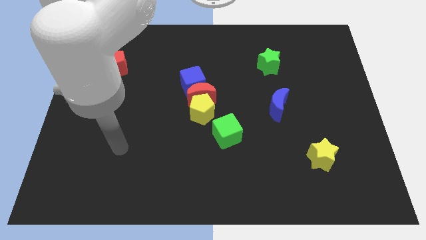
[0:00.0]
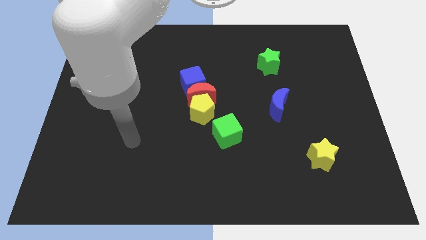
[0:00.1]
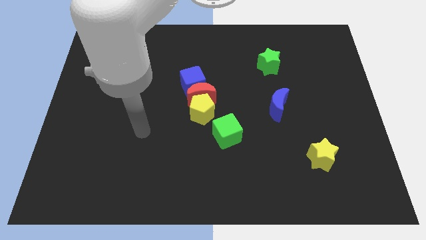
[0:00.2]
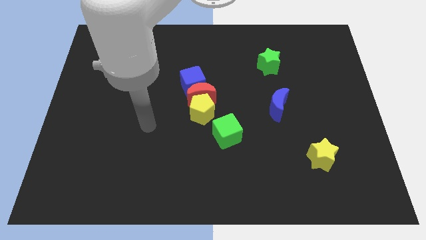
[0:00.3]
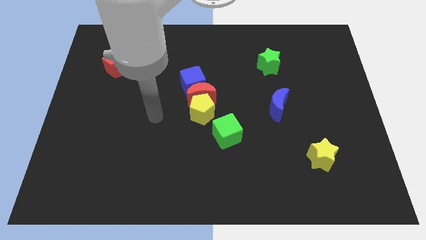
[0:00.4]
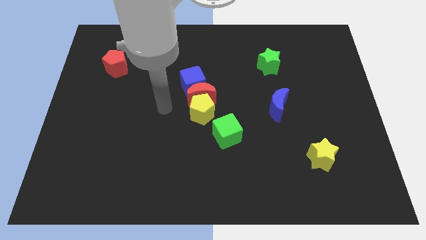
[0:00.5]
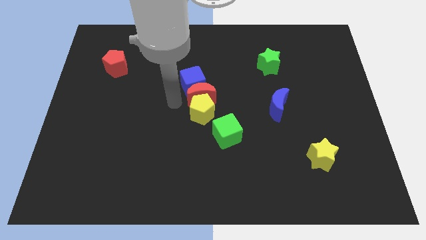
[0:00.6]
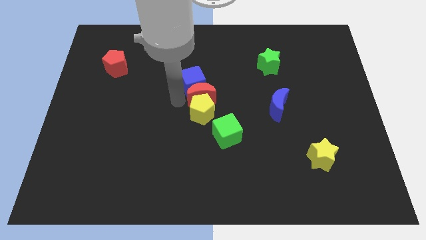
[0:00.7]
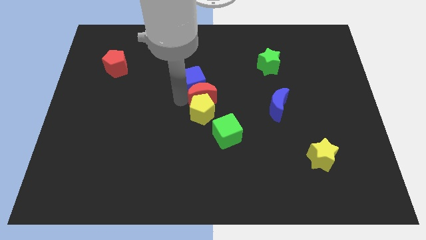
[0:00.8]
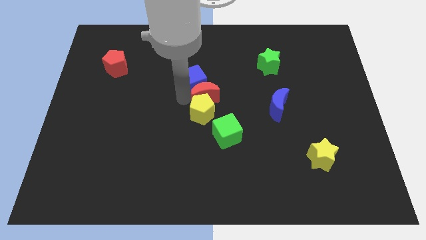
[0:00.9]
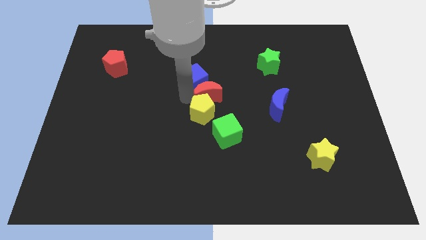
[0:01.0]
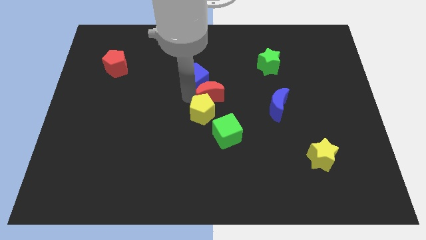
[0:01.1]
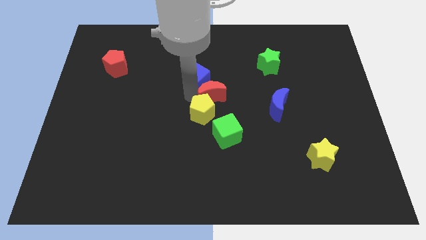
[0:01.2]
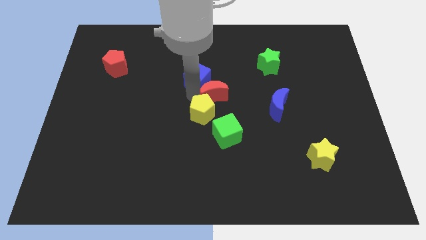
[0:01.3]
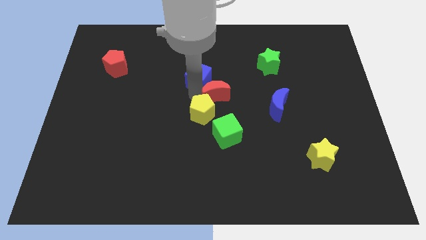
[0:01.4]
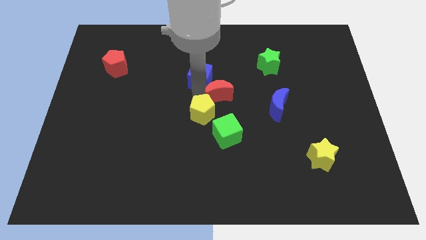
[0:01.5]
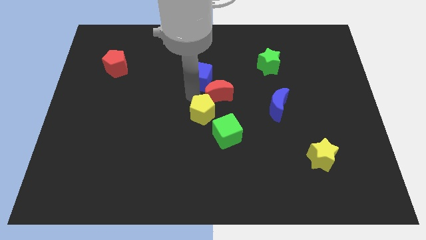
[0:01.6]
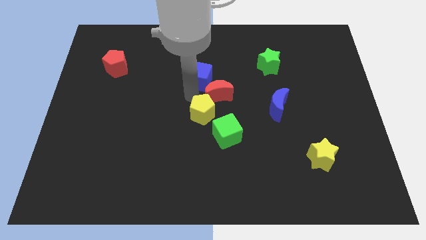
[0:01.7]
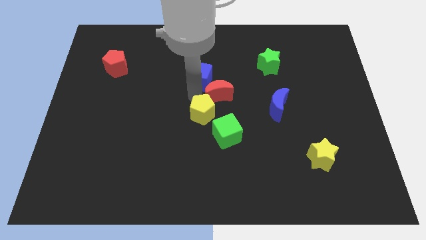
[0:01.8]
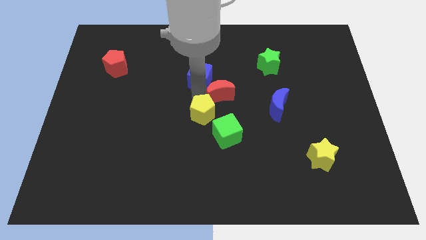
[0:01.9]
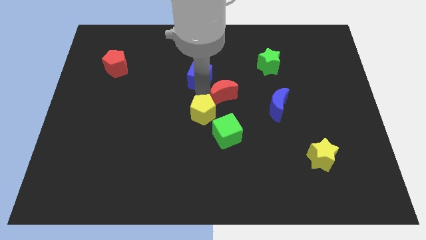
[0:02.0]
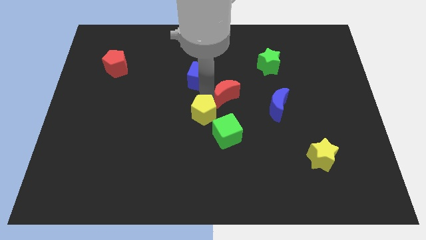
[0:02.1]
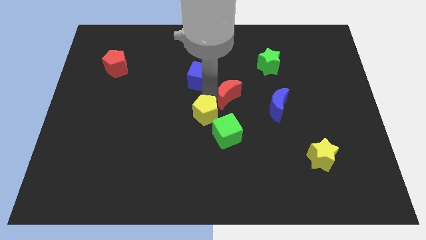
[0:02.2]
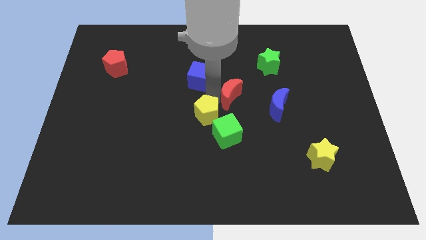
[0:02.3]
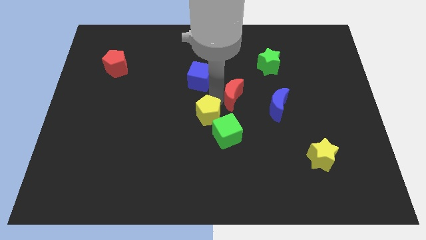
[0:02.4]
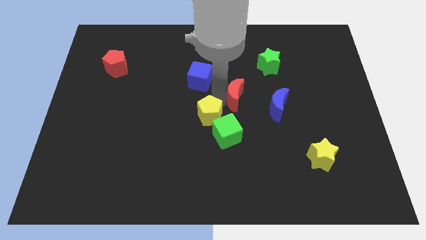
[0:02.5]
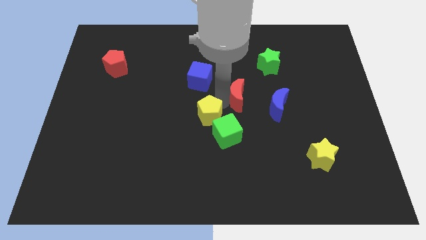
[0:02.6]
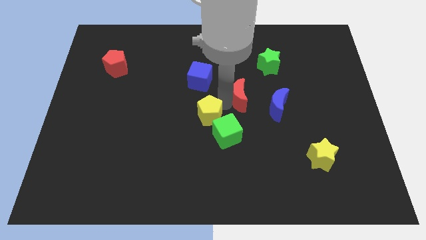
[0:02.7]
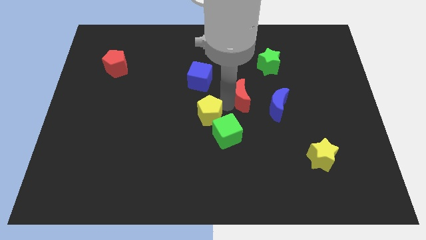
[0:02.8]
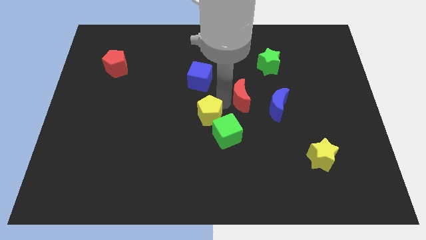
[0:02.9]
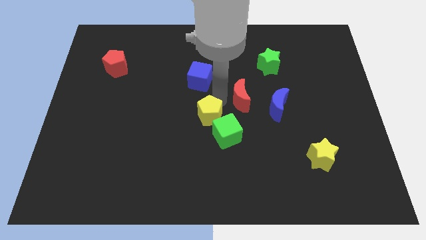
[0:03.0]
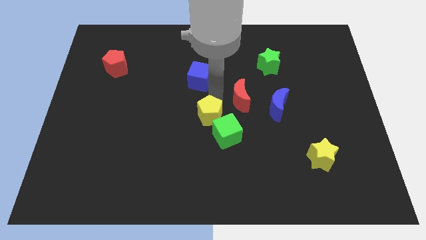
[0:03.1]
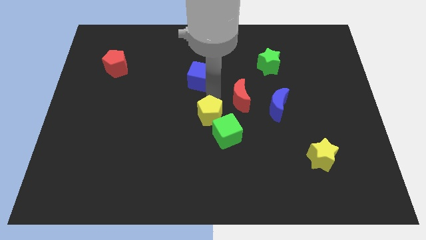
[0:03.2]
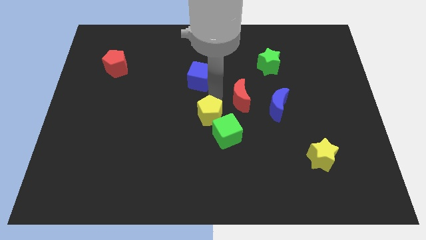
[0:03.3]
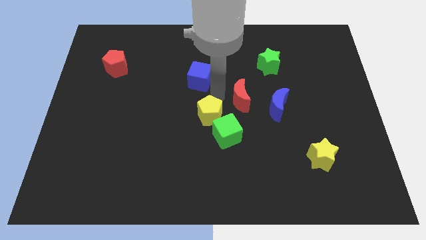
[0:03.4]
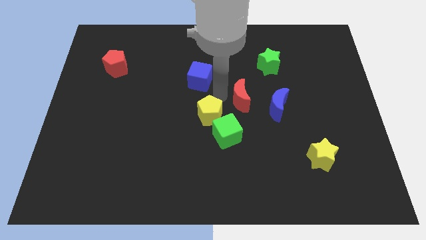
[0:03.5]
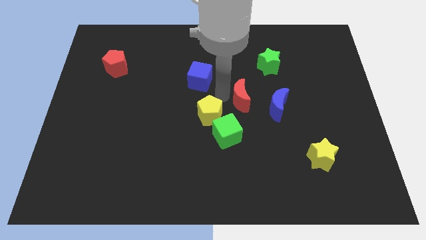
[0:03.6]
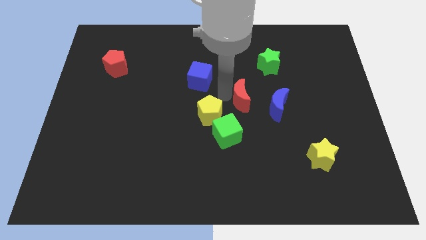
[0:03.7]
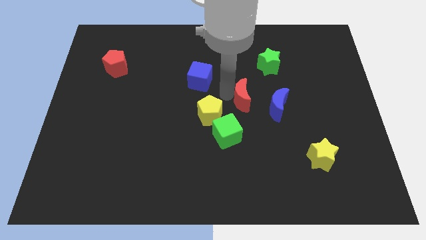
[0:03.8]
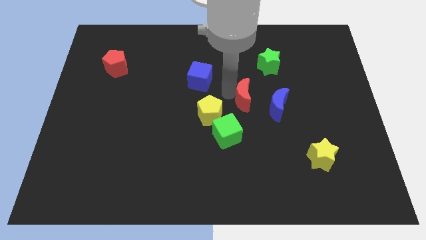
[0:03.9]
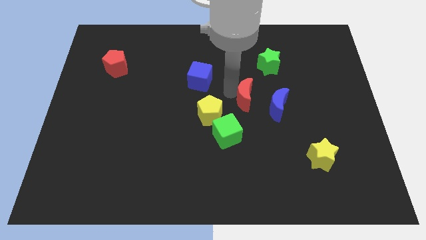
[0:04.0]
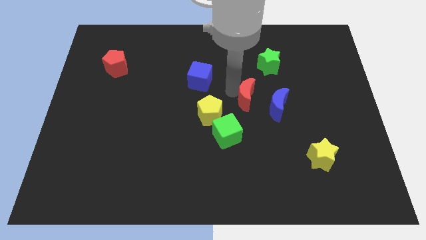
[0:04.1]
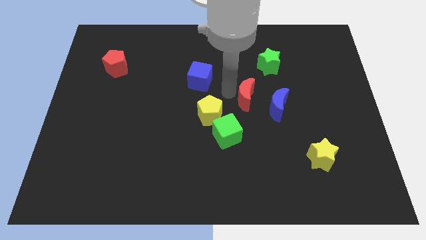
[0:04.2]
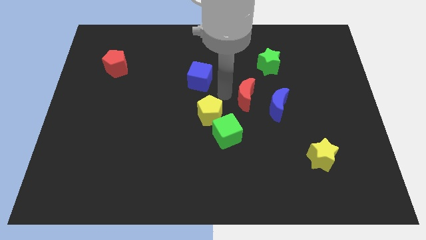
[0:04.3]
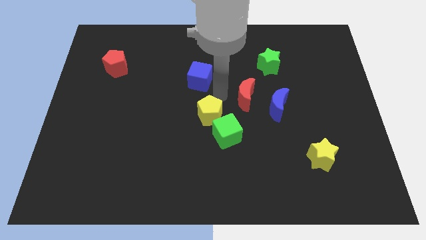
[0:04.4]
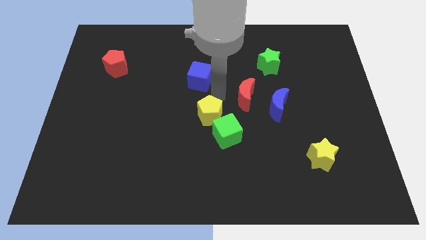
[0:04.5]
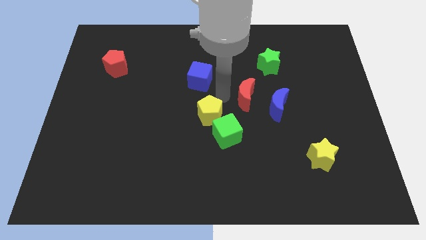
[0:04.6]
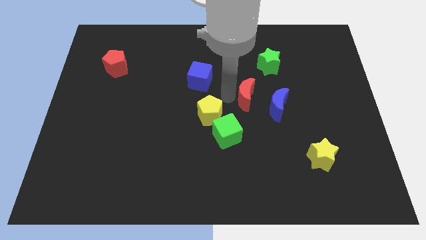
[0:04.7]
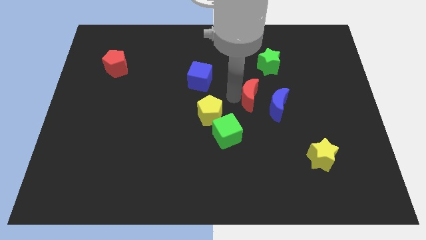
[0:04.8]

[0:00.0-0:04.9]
move the red moon away from the blue cube and yellow pentagon

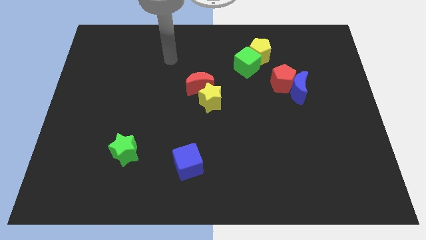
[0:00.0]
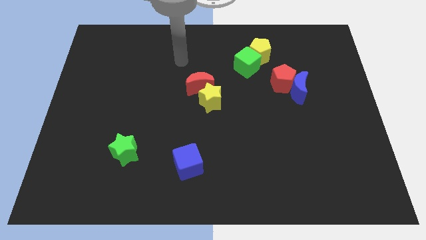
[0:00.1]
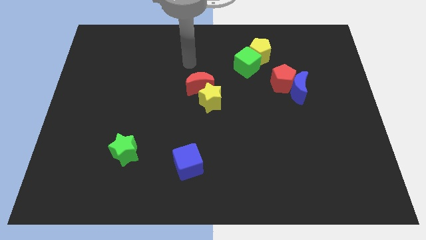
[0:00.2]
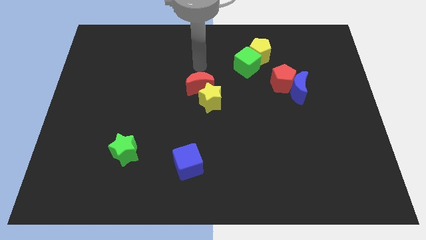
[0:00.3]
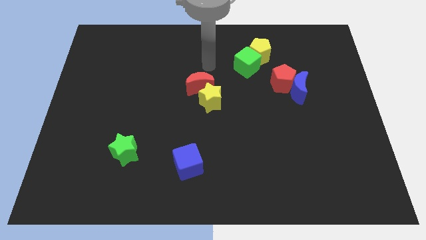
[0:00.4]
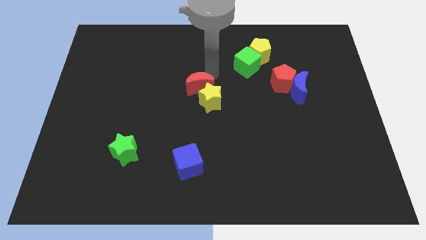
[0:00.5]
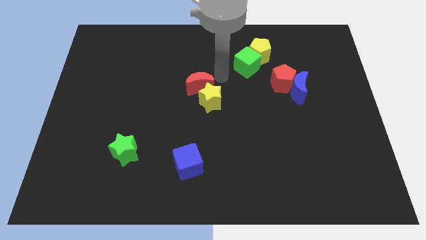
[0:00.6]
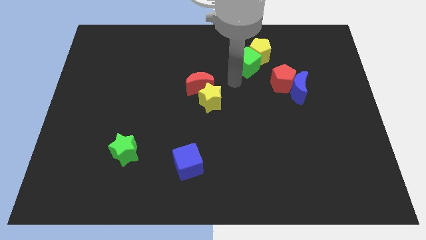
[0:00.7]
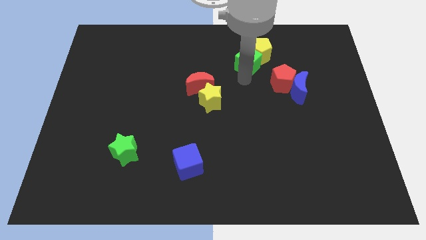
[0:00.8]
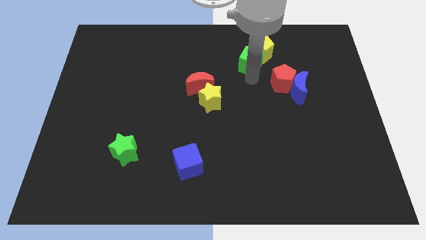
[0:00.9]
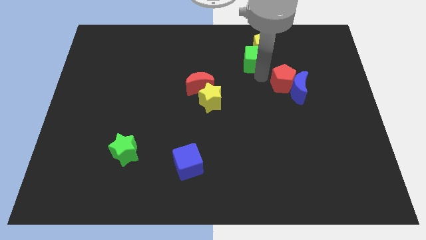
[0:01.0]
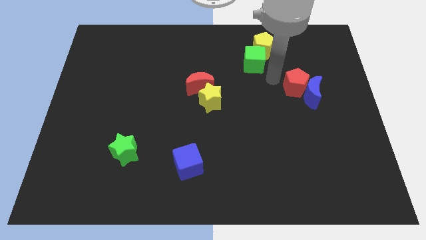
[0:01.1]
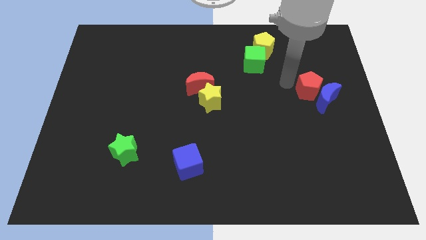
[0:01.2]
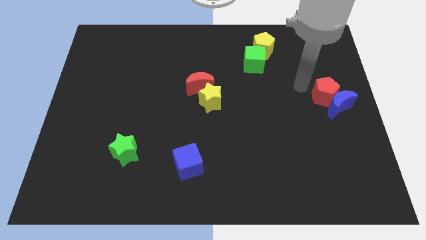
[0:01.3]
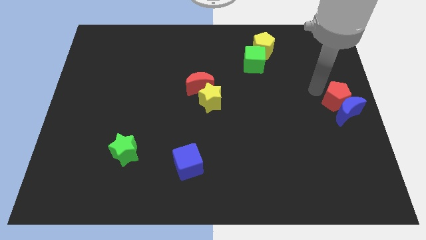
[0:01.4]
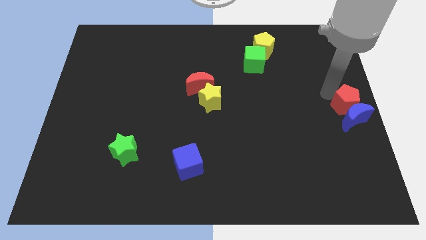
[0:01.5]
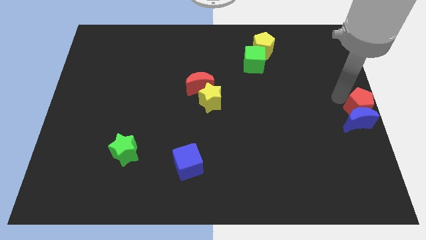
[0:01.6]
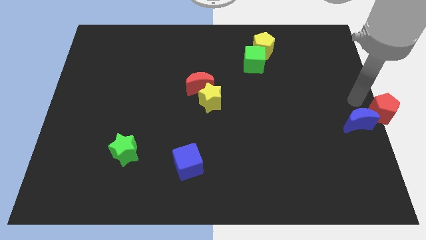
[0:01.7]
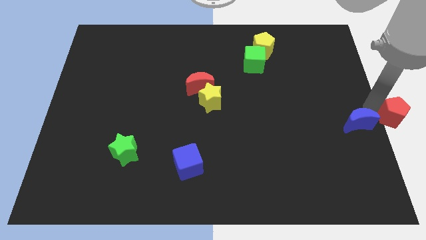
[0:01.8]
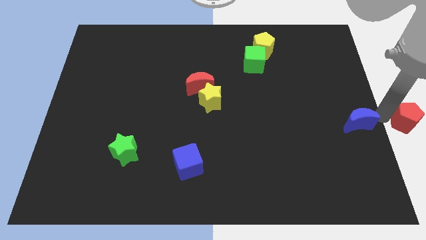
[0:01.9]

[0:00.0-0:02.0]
separate the blue moon from the red pentagon

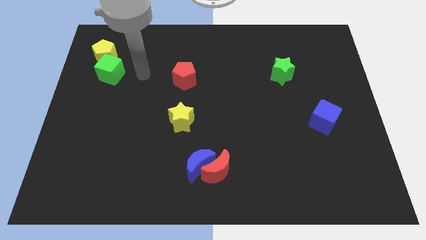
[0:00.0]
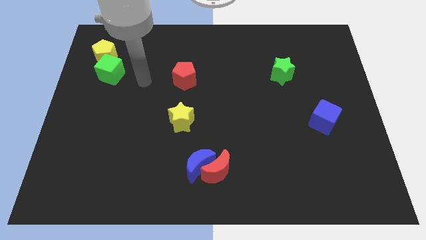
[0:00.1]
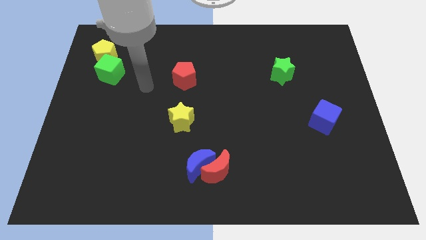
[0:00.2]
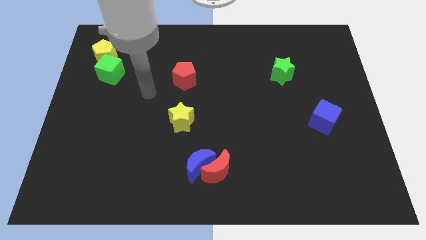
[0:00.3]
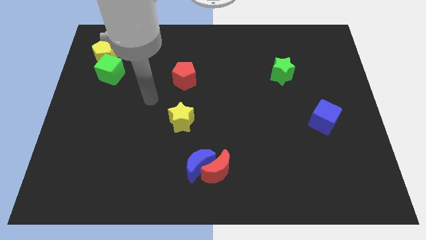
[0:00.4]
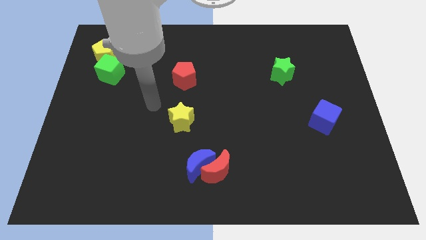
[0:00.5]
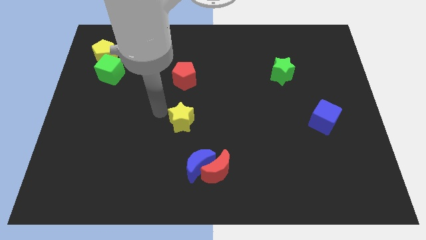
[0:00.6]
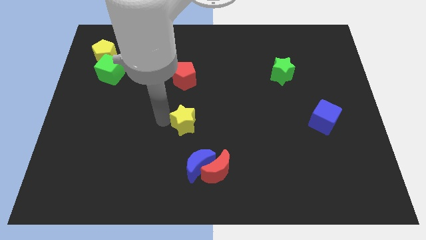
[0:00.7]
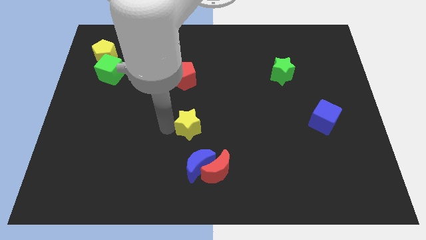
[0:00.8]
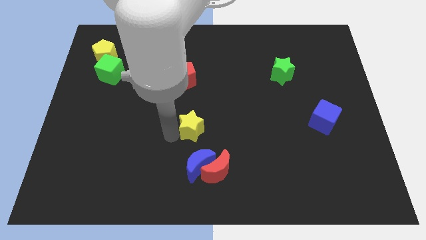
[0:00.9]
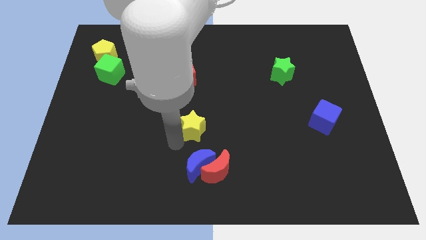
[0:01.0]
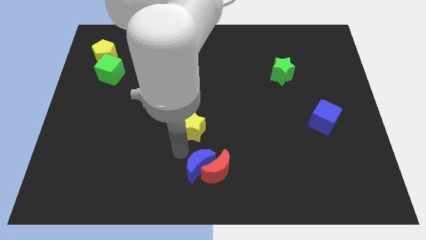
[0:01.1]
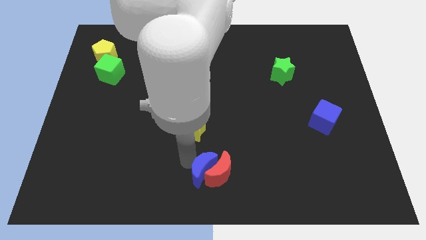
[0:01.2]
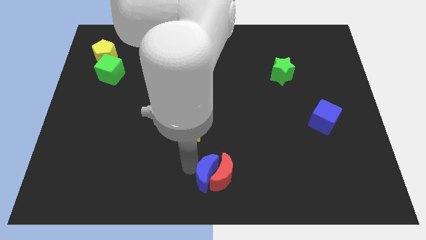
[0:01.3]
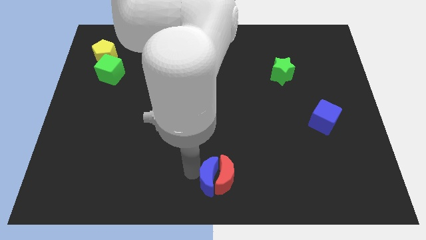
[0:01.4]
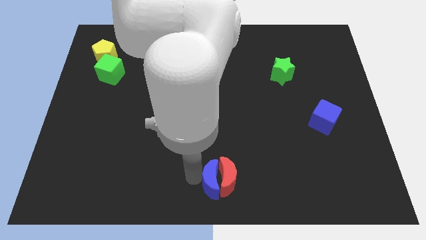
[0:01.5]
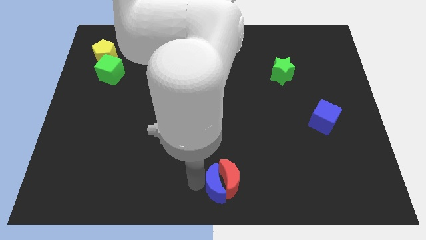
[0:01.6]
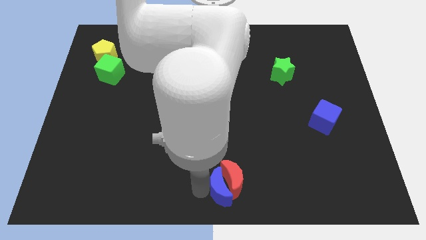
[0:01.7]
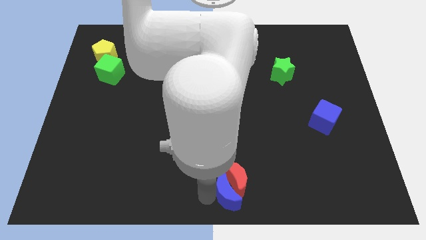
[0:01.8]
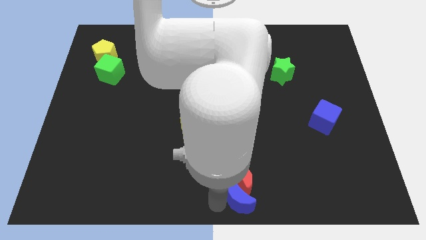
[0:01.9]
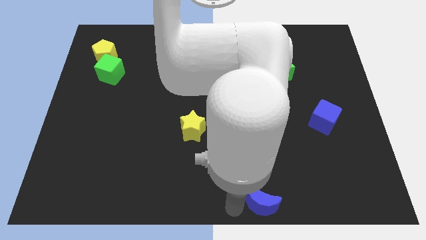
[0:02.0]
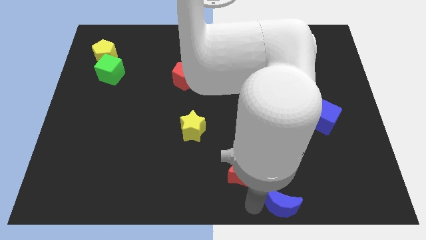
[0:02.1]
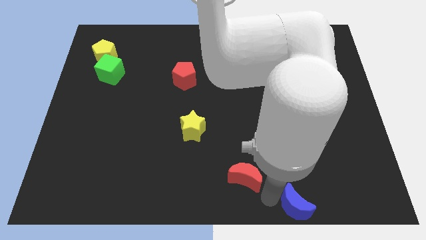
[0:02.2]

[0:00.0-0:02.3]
move the red moon away from the blue moon

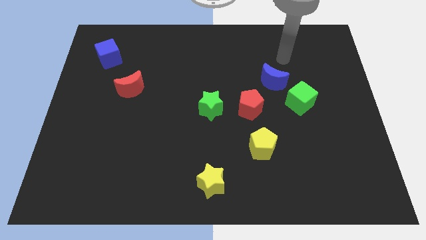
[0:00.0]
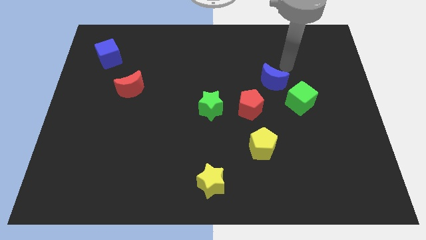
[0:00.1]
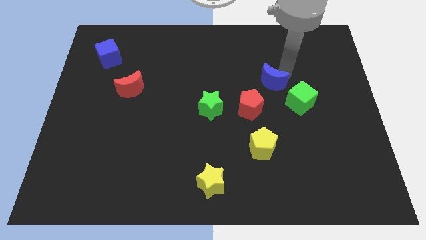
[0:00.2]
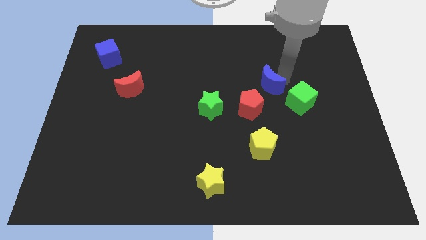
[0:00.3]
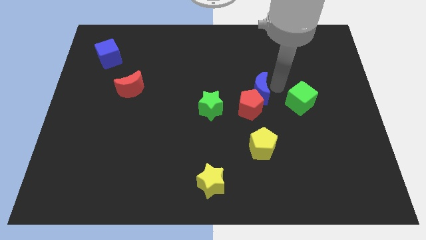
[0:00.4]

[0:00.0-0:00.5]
separate the green cube from the blue moon
